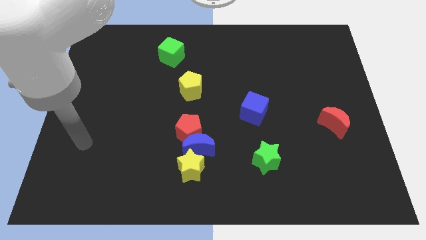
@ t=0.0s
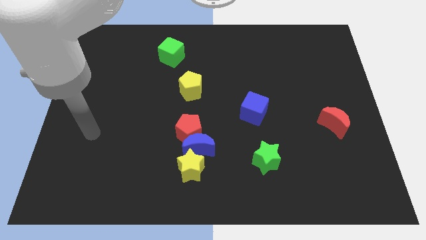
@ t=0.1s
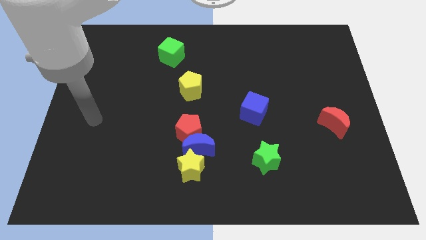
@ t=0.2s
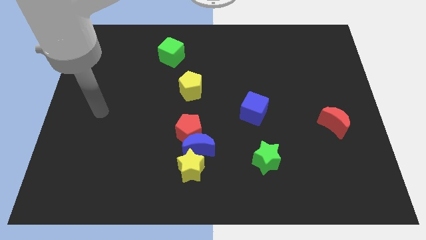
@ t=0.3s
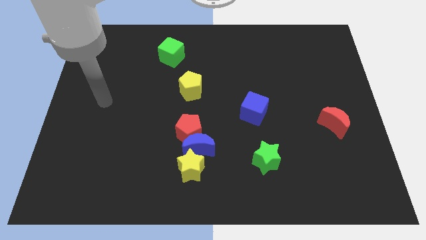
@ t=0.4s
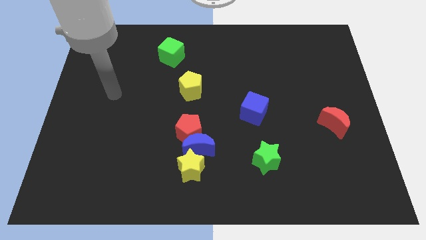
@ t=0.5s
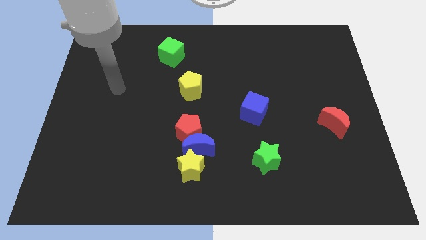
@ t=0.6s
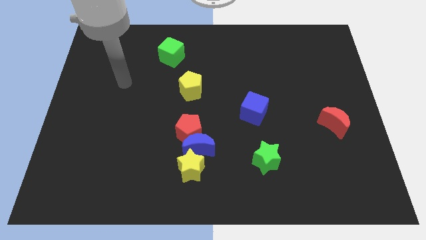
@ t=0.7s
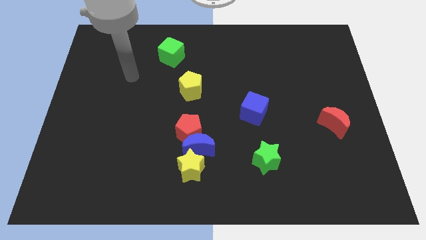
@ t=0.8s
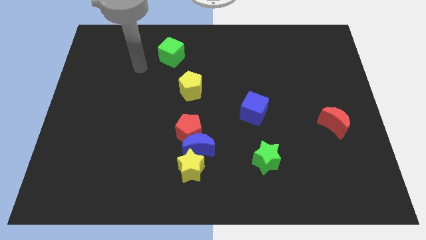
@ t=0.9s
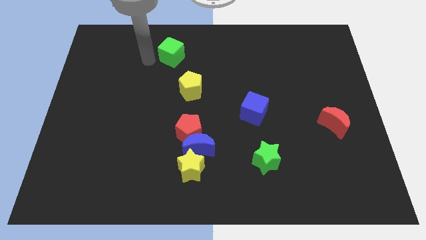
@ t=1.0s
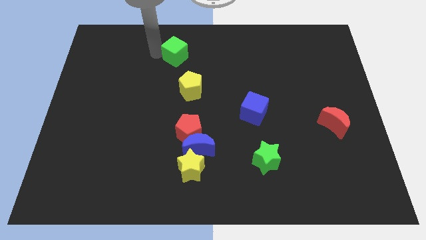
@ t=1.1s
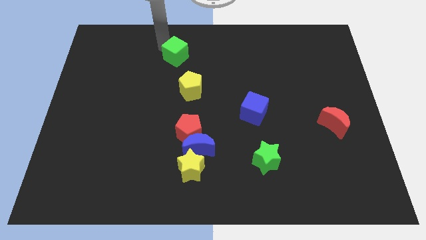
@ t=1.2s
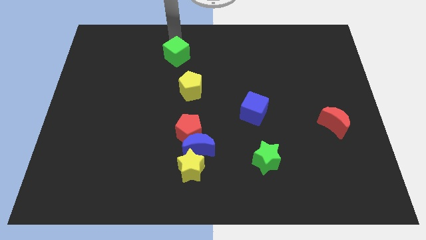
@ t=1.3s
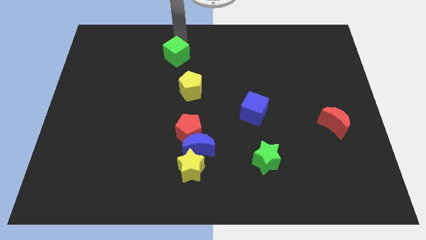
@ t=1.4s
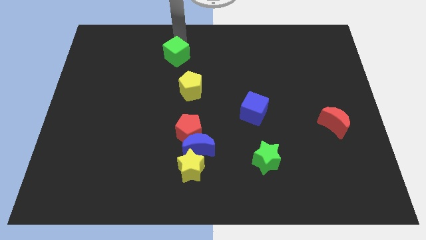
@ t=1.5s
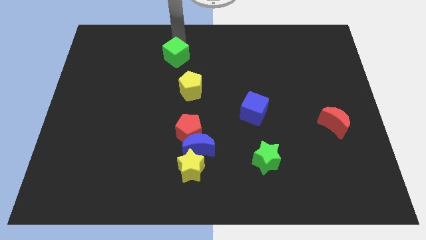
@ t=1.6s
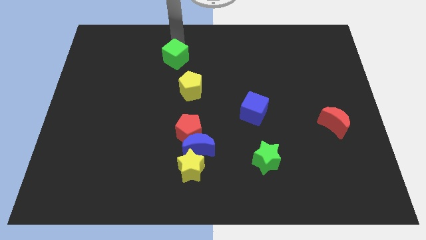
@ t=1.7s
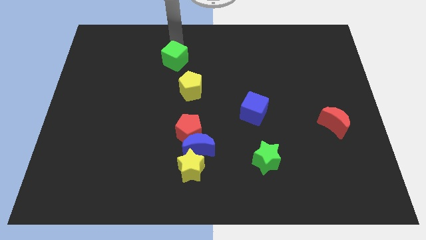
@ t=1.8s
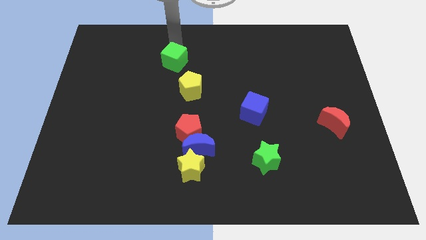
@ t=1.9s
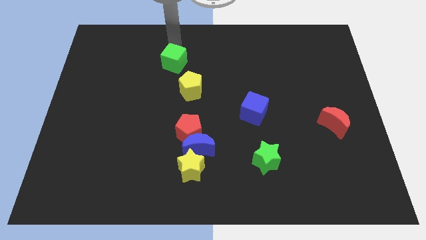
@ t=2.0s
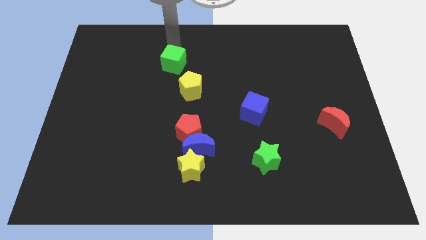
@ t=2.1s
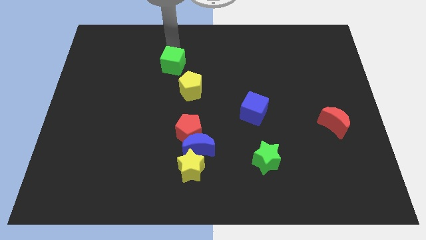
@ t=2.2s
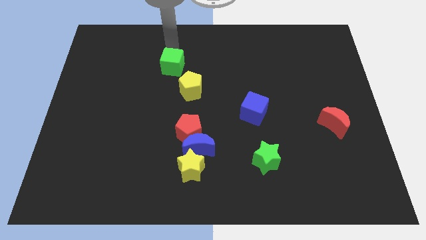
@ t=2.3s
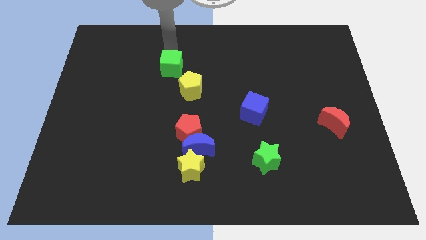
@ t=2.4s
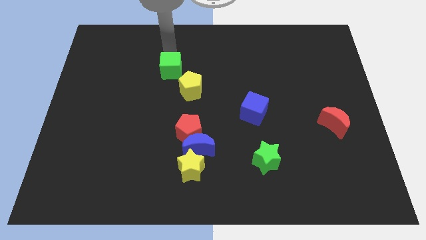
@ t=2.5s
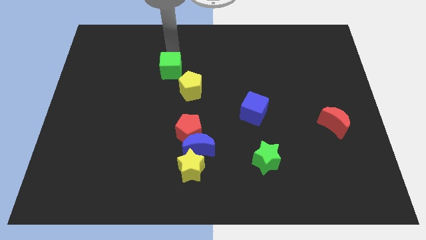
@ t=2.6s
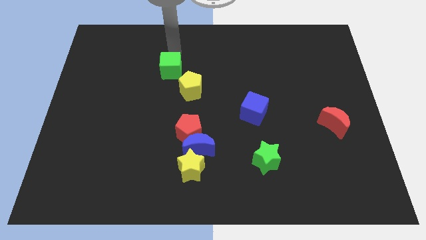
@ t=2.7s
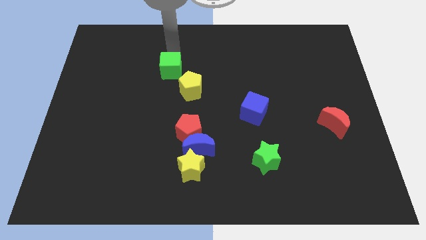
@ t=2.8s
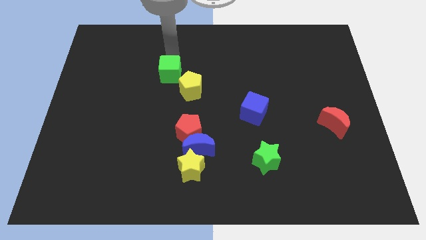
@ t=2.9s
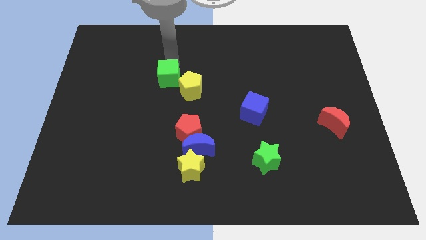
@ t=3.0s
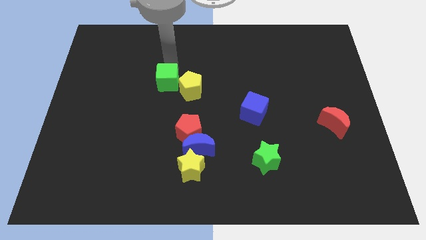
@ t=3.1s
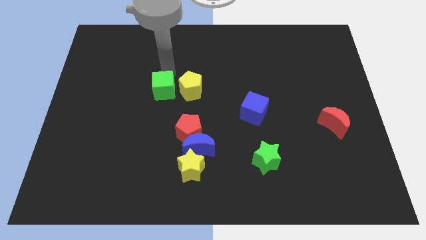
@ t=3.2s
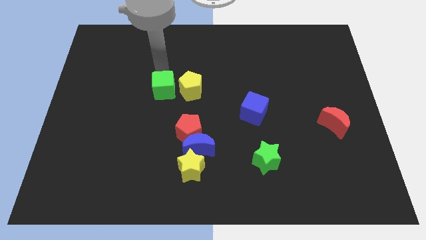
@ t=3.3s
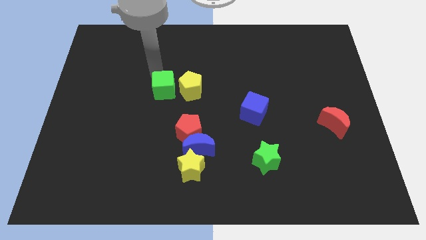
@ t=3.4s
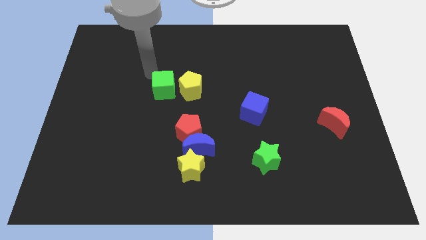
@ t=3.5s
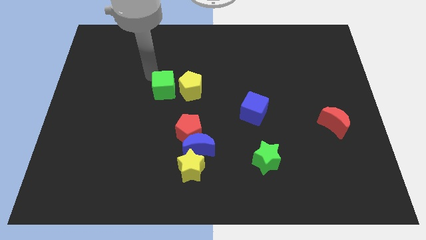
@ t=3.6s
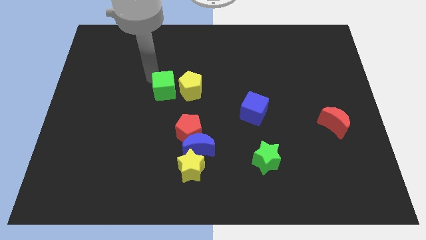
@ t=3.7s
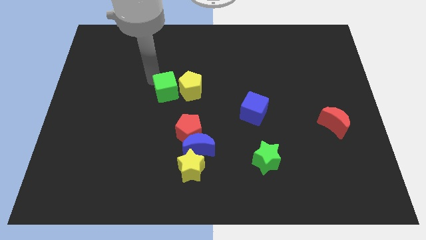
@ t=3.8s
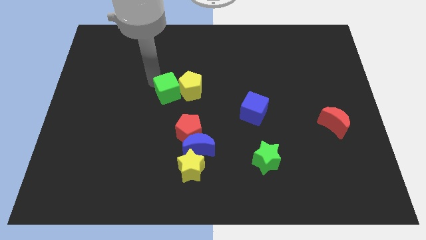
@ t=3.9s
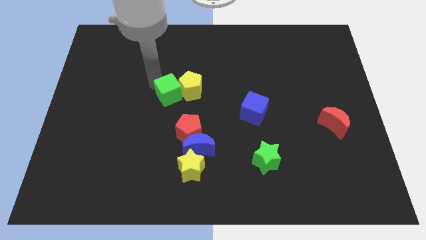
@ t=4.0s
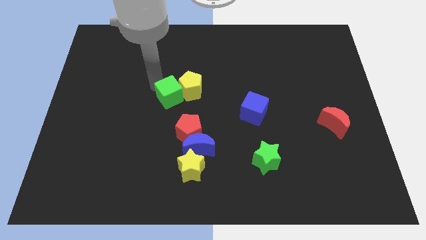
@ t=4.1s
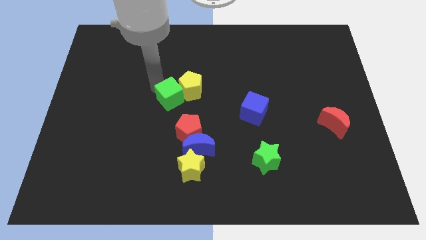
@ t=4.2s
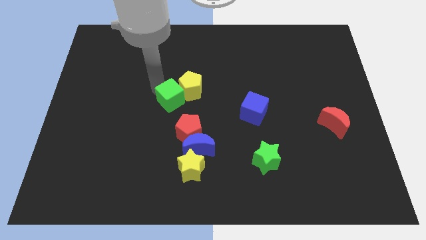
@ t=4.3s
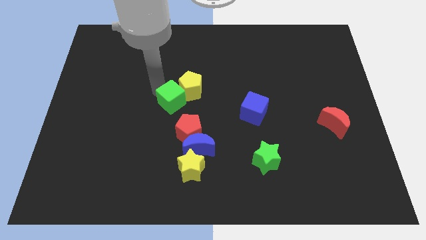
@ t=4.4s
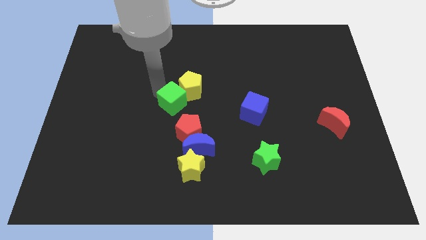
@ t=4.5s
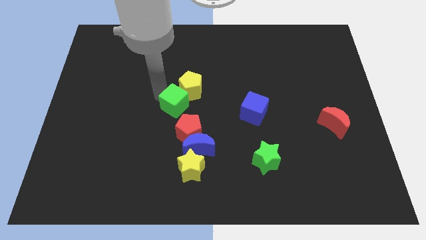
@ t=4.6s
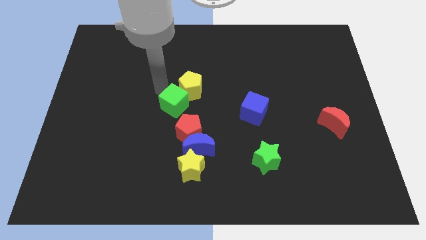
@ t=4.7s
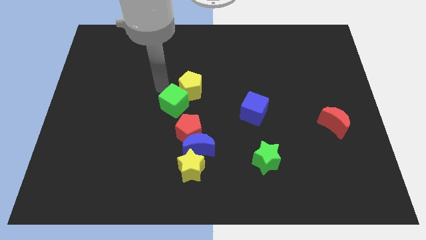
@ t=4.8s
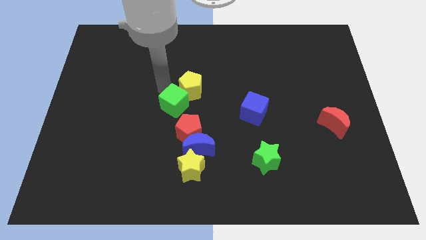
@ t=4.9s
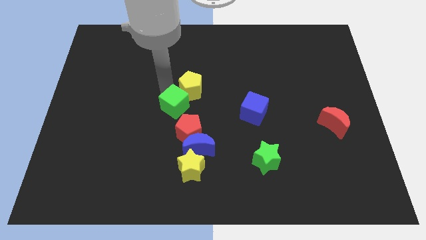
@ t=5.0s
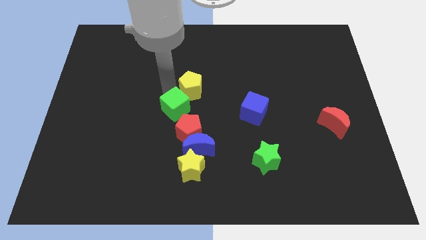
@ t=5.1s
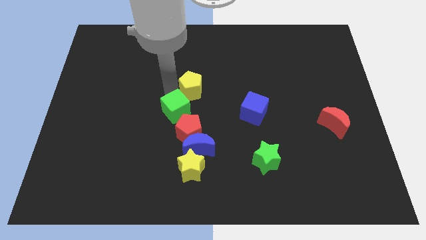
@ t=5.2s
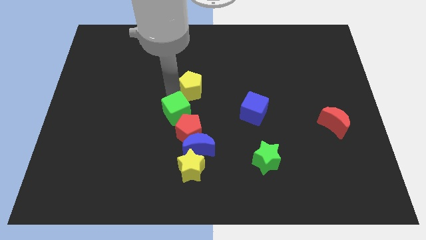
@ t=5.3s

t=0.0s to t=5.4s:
slide the green cube to the top of the yellow star

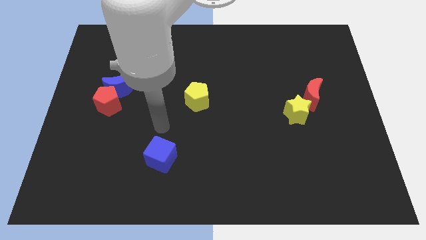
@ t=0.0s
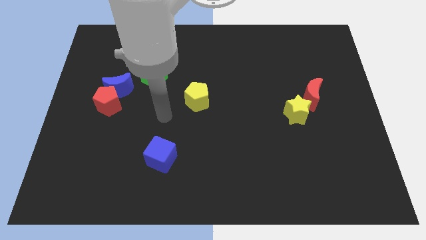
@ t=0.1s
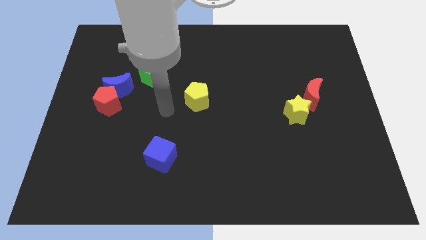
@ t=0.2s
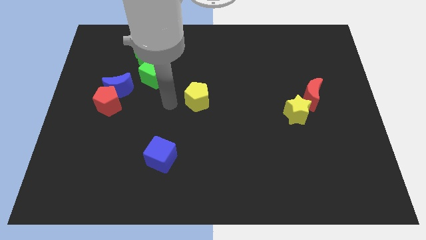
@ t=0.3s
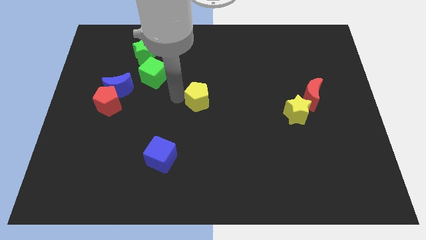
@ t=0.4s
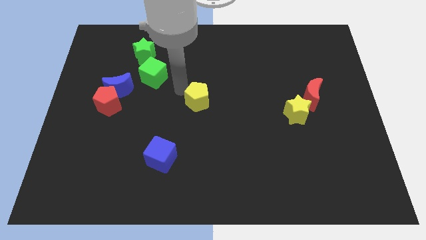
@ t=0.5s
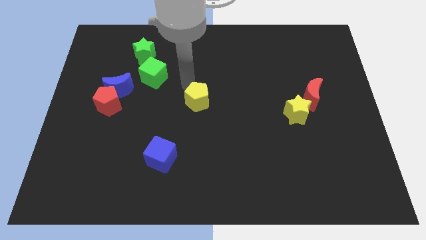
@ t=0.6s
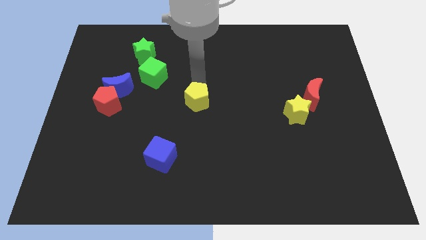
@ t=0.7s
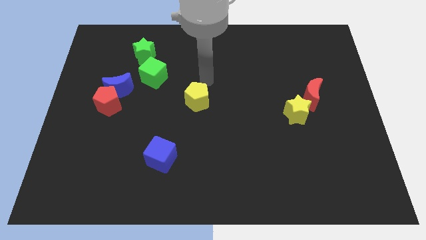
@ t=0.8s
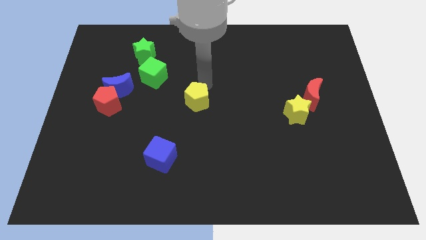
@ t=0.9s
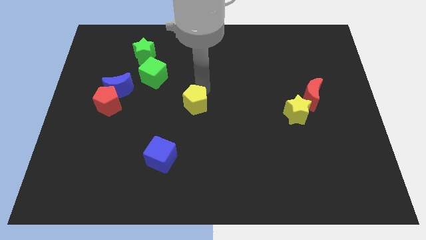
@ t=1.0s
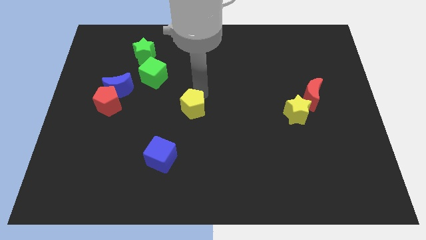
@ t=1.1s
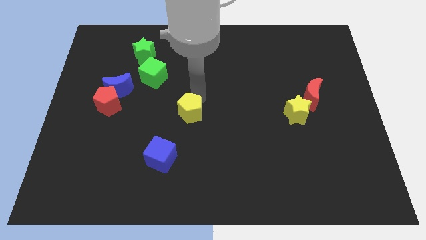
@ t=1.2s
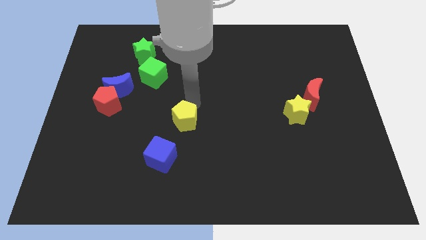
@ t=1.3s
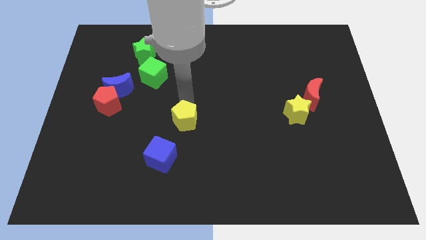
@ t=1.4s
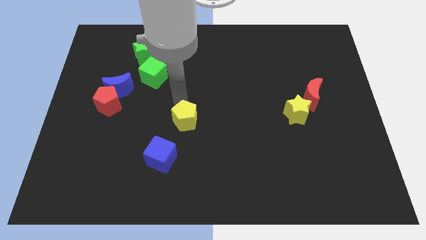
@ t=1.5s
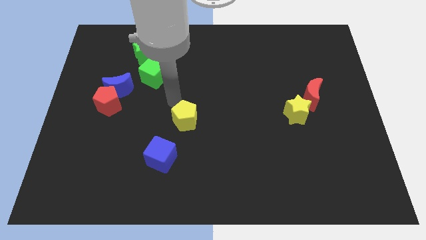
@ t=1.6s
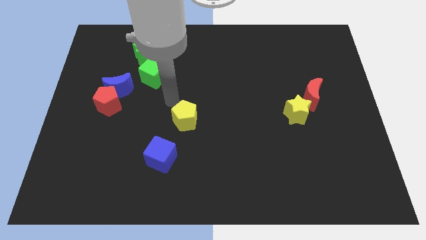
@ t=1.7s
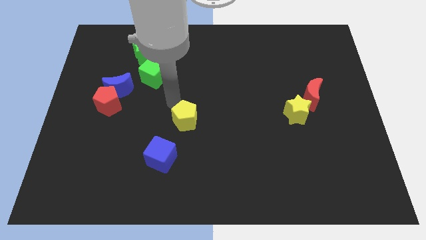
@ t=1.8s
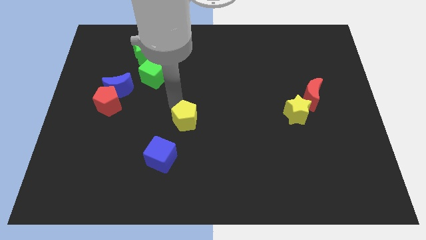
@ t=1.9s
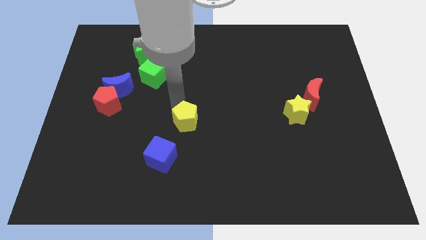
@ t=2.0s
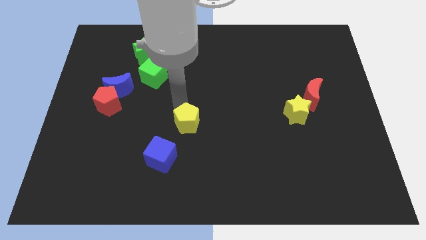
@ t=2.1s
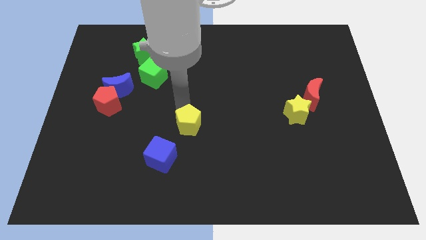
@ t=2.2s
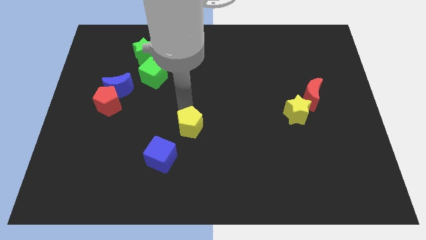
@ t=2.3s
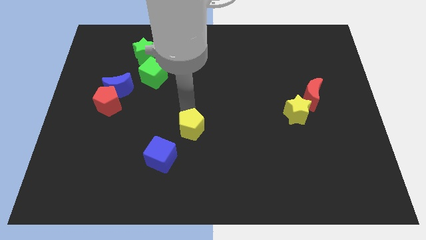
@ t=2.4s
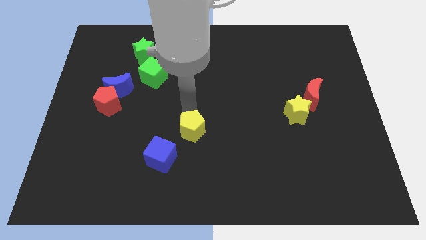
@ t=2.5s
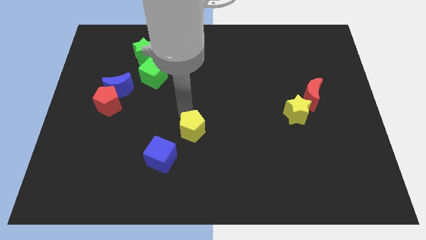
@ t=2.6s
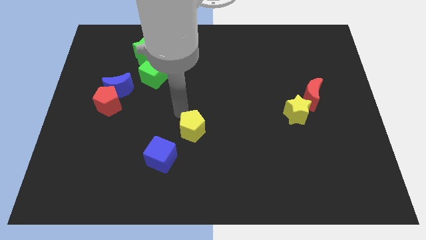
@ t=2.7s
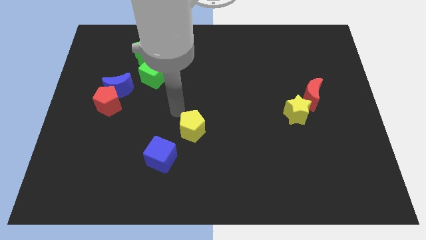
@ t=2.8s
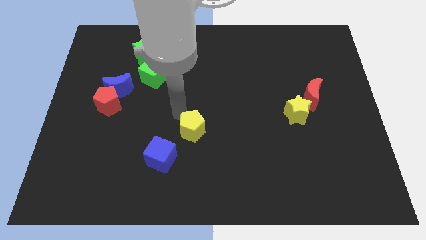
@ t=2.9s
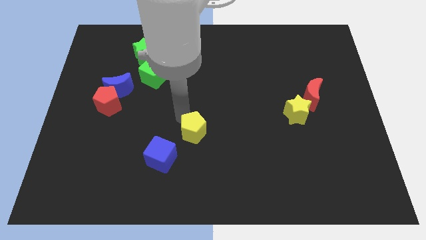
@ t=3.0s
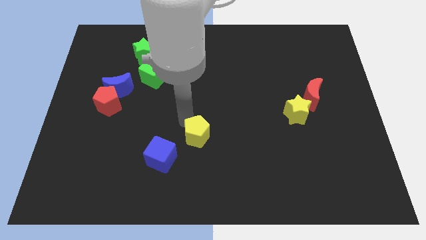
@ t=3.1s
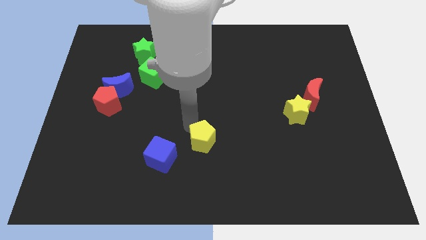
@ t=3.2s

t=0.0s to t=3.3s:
put the yellow pentagon to the right side of the blue cube
